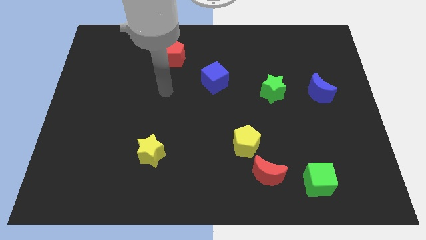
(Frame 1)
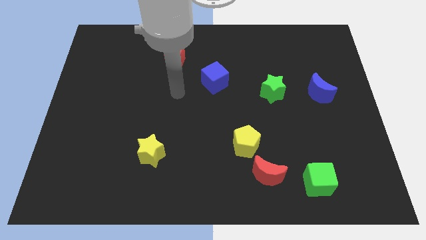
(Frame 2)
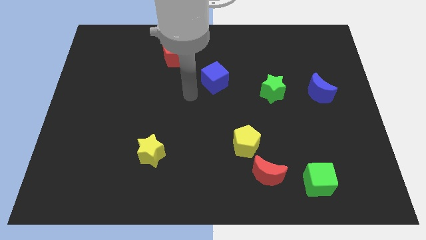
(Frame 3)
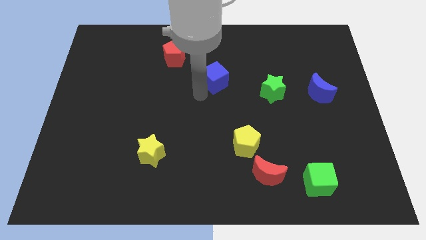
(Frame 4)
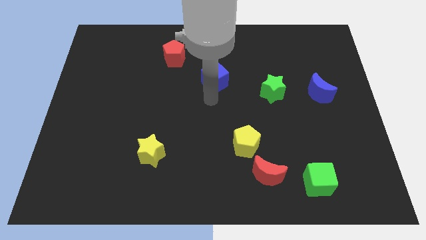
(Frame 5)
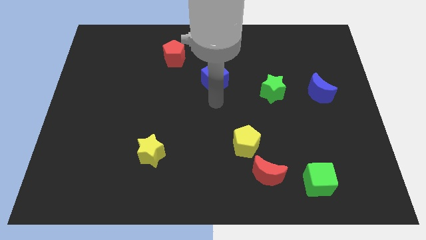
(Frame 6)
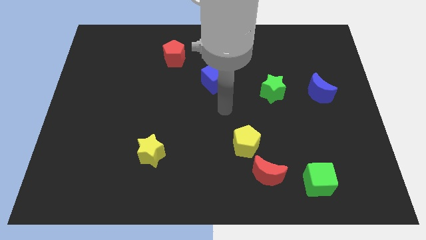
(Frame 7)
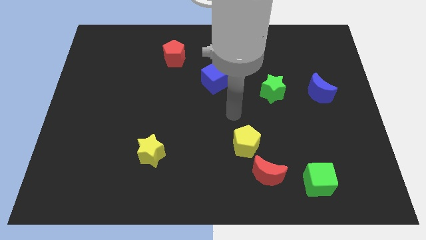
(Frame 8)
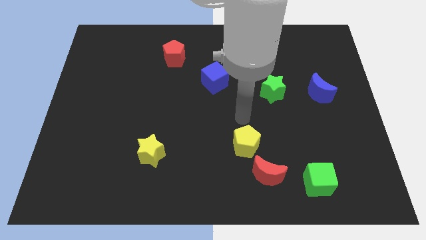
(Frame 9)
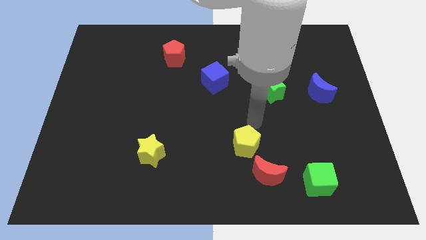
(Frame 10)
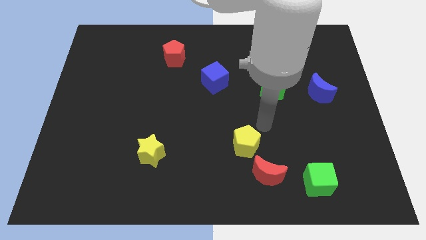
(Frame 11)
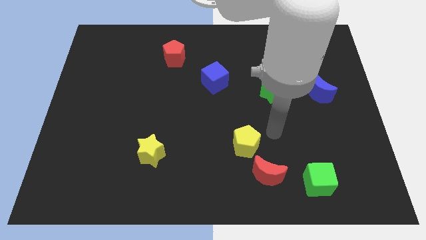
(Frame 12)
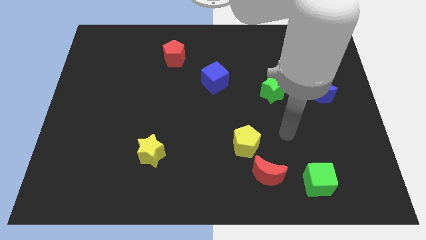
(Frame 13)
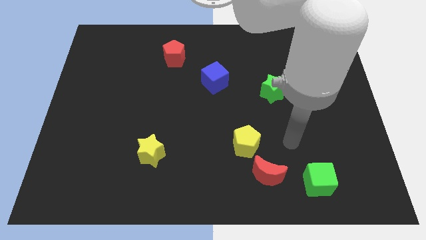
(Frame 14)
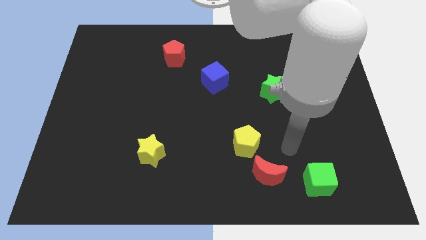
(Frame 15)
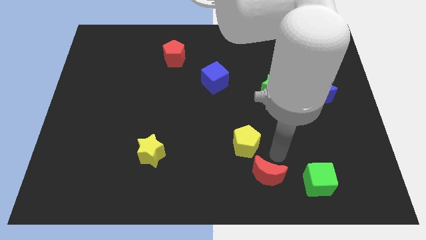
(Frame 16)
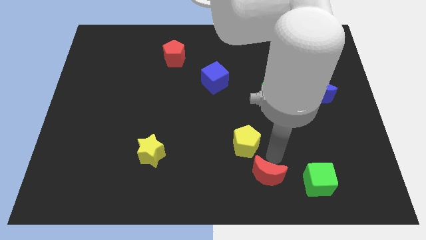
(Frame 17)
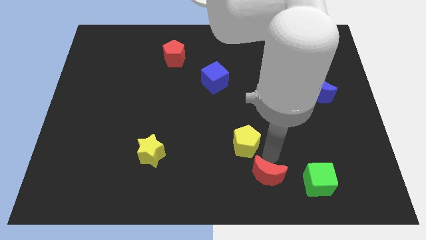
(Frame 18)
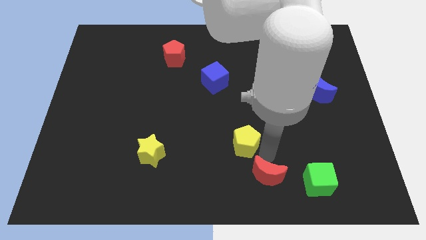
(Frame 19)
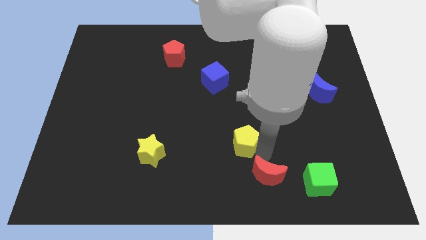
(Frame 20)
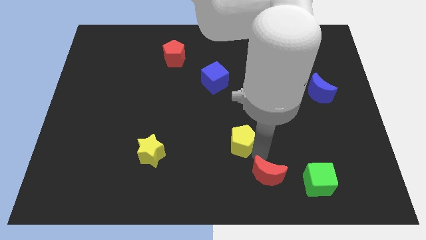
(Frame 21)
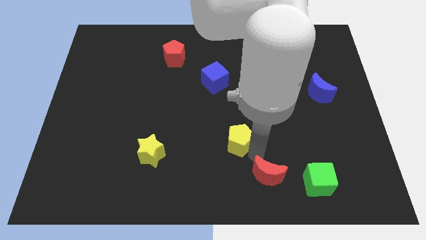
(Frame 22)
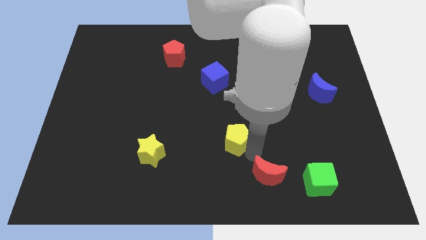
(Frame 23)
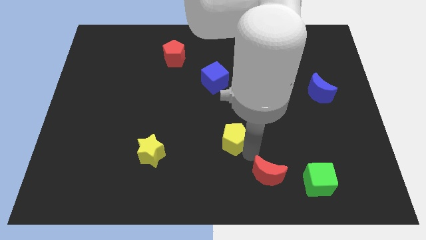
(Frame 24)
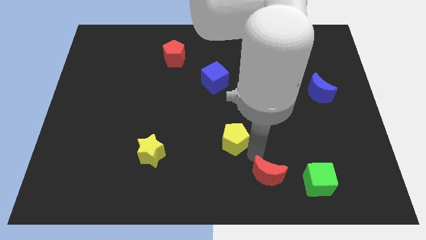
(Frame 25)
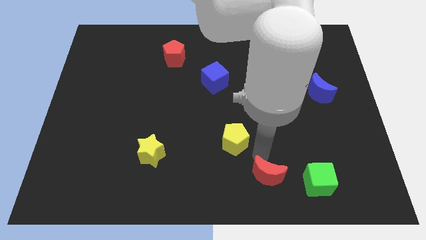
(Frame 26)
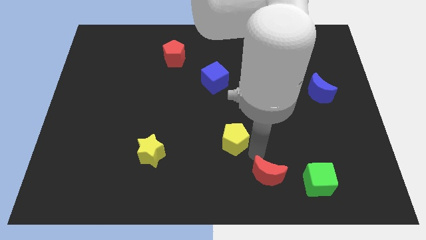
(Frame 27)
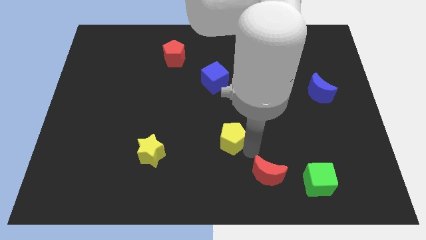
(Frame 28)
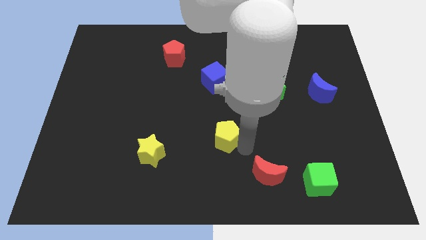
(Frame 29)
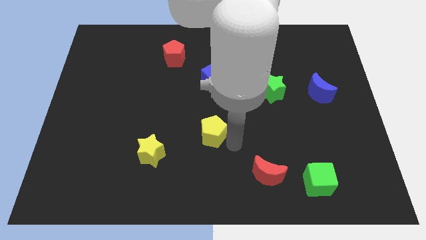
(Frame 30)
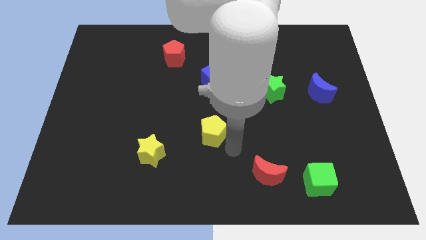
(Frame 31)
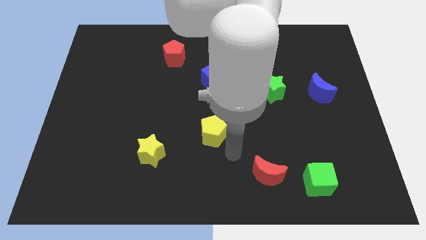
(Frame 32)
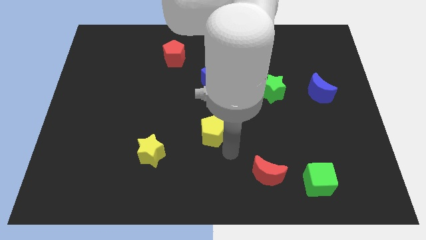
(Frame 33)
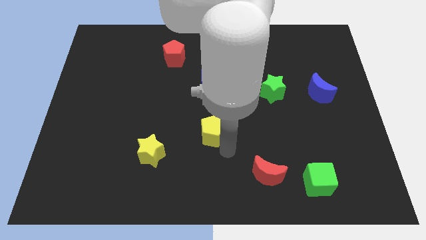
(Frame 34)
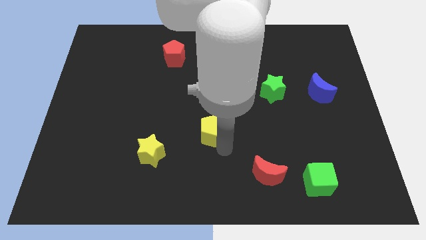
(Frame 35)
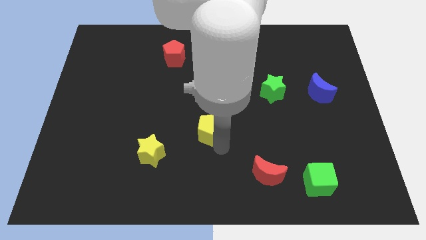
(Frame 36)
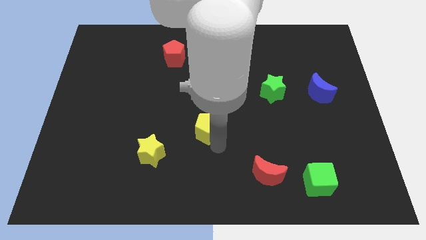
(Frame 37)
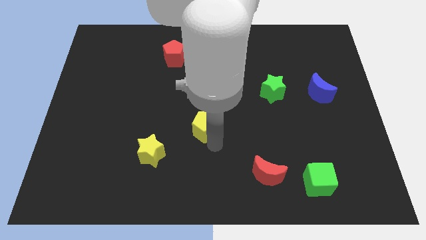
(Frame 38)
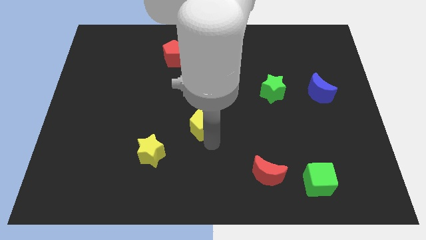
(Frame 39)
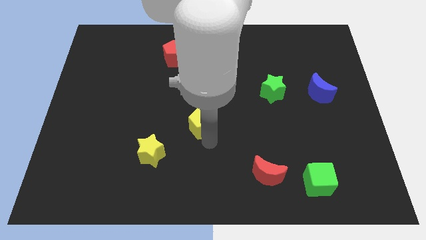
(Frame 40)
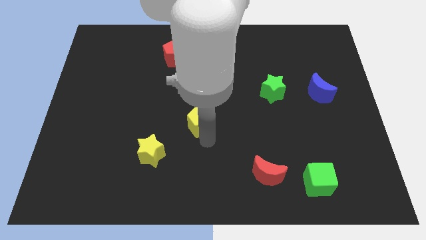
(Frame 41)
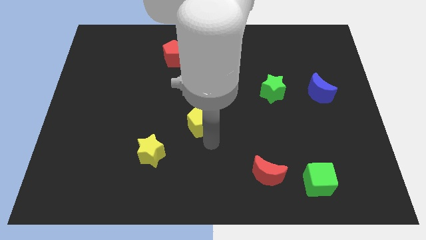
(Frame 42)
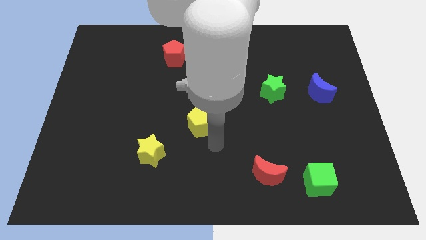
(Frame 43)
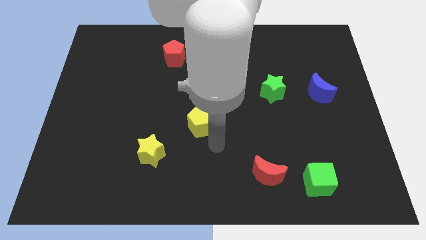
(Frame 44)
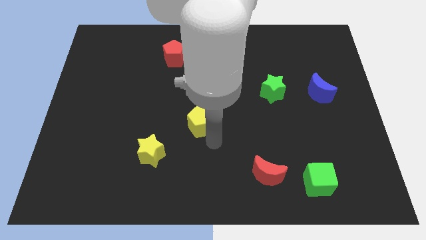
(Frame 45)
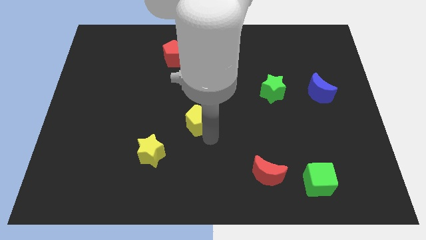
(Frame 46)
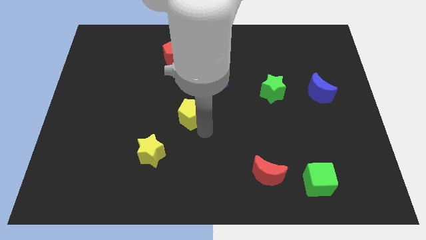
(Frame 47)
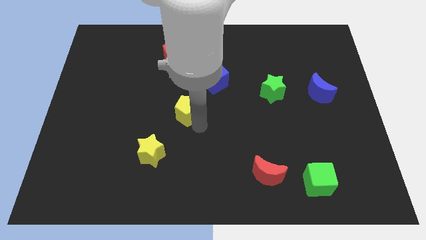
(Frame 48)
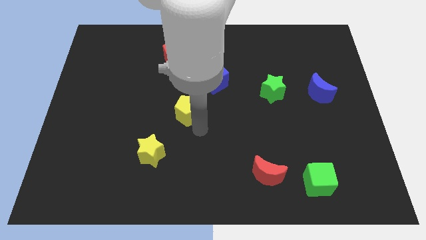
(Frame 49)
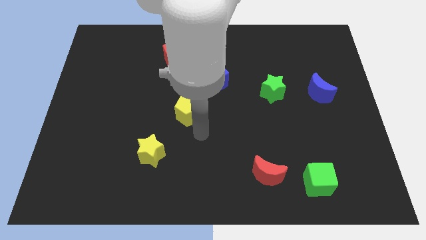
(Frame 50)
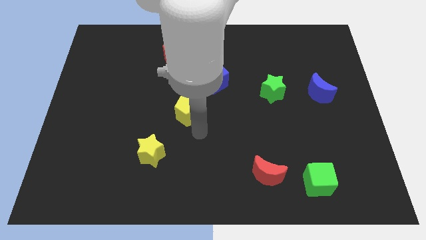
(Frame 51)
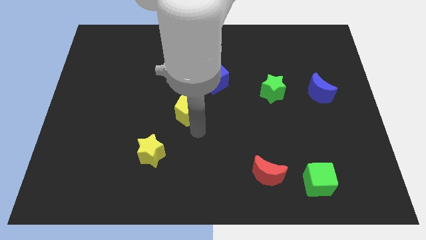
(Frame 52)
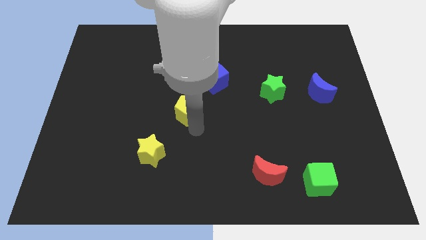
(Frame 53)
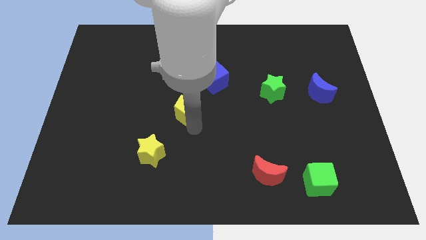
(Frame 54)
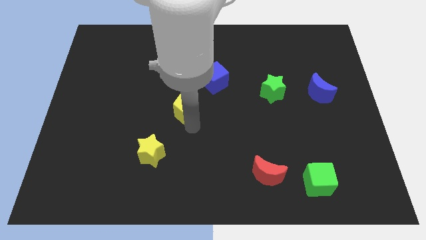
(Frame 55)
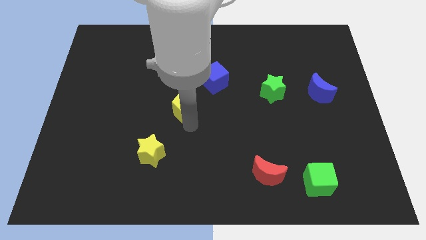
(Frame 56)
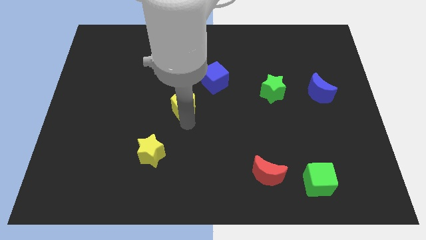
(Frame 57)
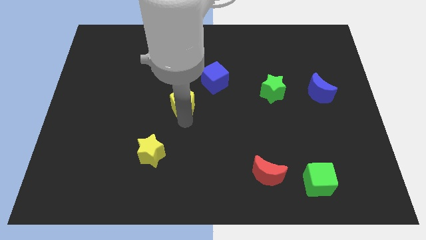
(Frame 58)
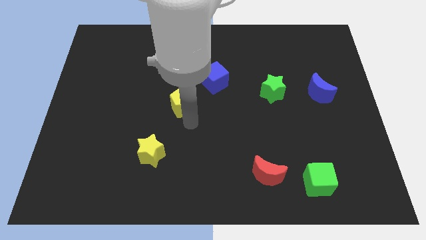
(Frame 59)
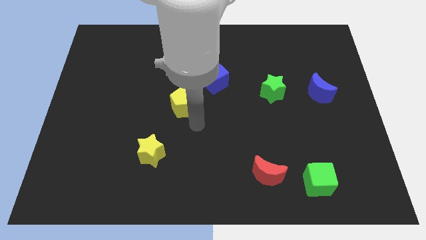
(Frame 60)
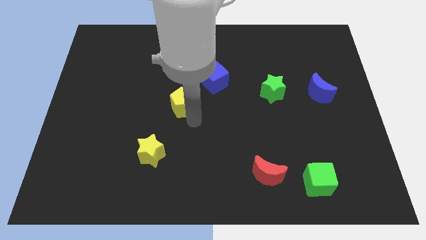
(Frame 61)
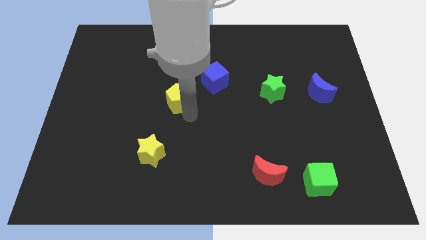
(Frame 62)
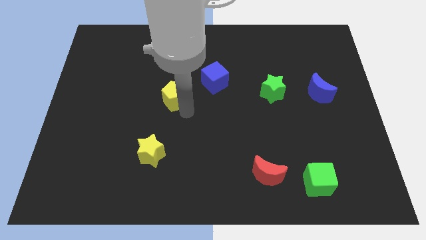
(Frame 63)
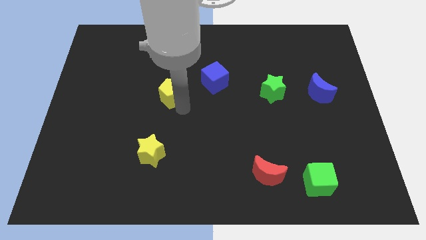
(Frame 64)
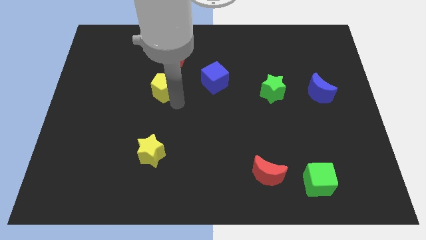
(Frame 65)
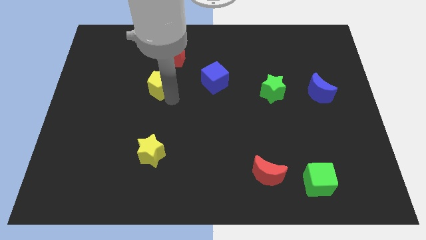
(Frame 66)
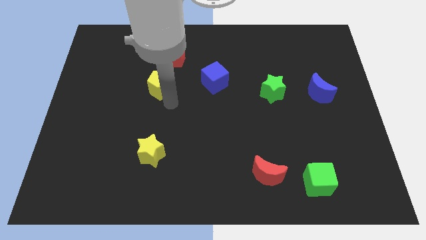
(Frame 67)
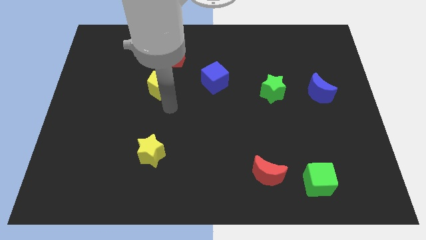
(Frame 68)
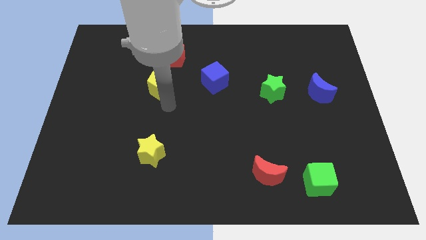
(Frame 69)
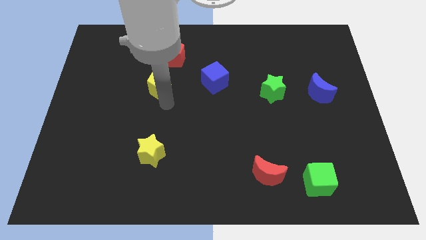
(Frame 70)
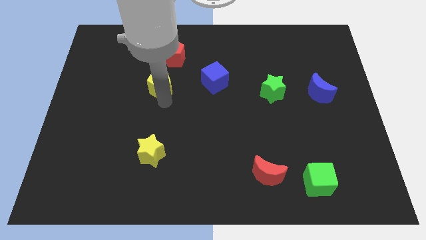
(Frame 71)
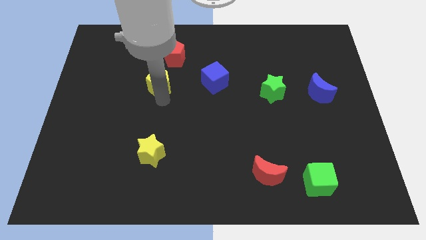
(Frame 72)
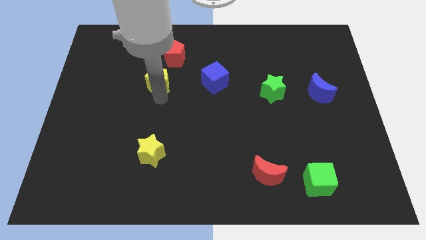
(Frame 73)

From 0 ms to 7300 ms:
move the yellow pentagon diagonally down and to the left of the red pentagon
